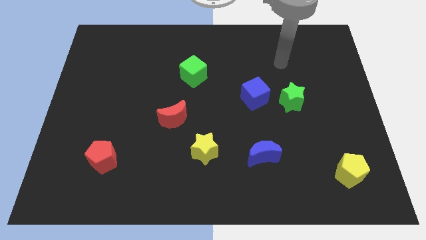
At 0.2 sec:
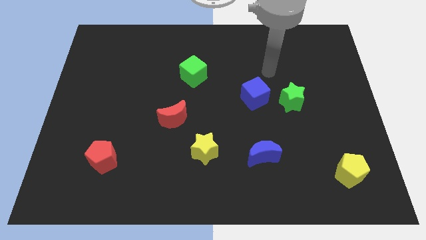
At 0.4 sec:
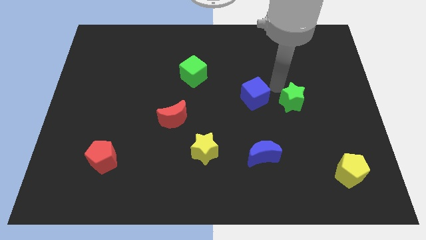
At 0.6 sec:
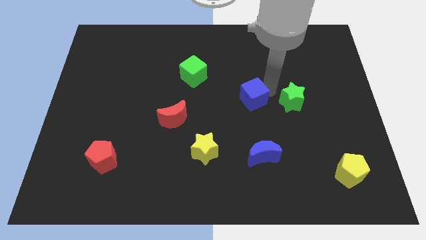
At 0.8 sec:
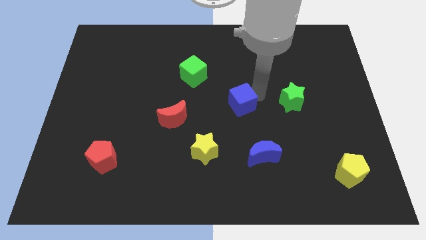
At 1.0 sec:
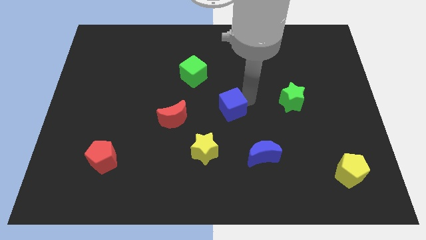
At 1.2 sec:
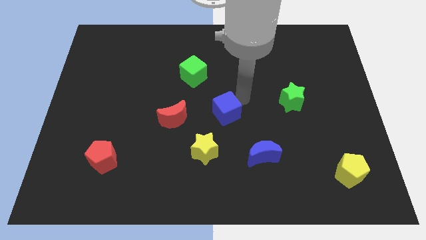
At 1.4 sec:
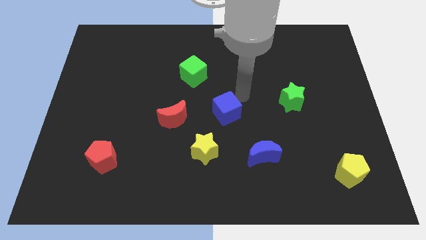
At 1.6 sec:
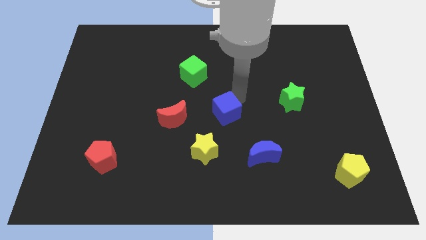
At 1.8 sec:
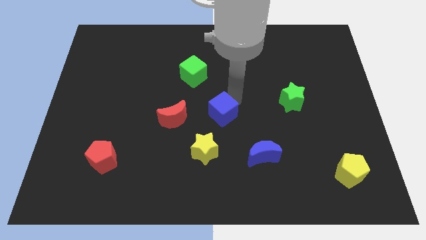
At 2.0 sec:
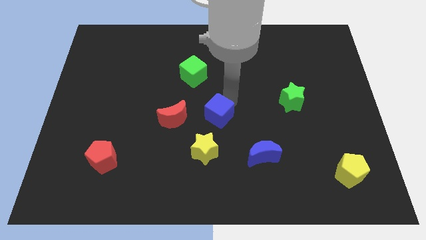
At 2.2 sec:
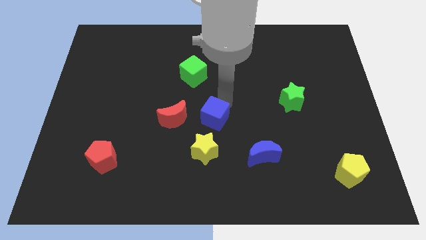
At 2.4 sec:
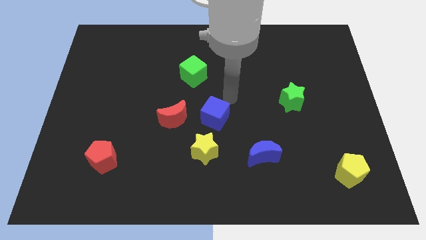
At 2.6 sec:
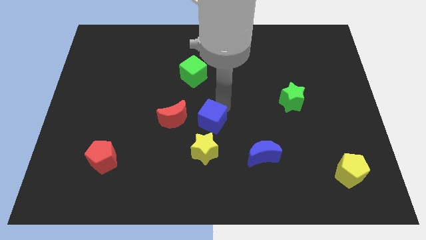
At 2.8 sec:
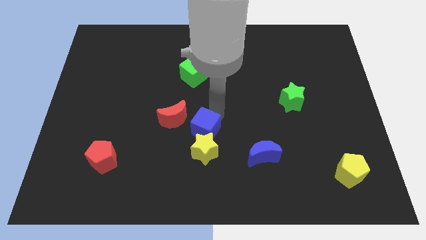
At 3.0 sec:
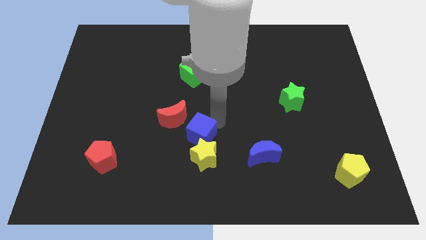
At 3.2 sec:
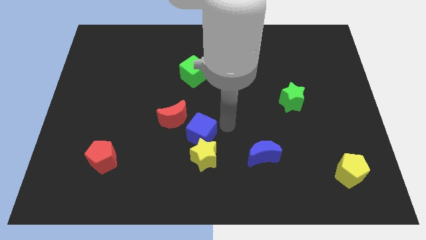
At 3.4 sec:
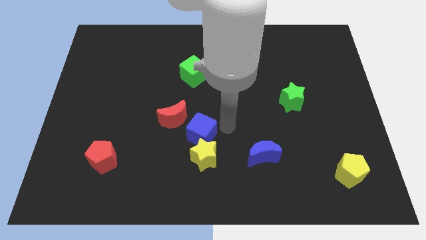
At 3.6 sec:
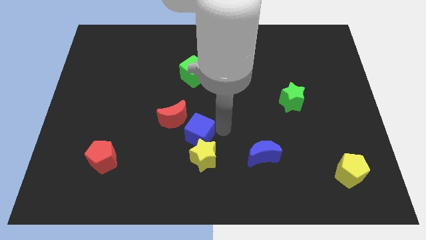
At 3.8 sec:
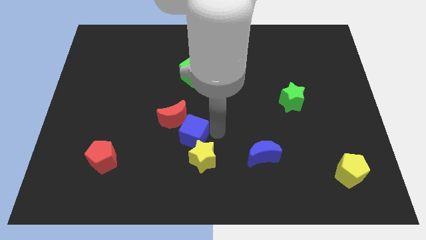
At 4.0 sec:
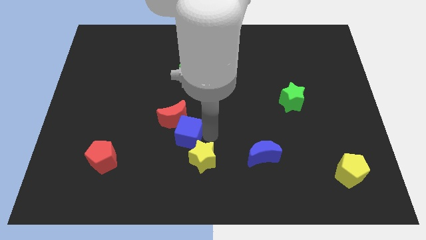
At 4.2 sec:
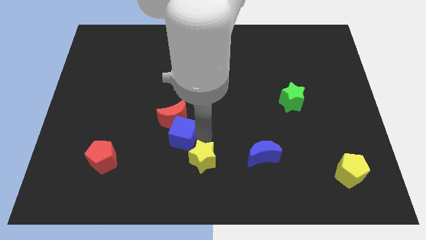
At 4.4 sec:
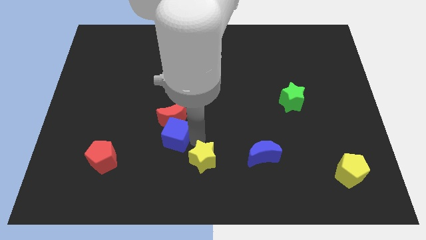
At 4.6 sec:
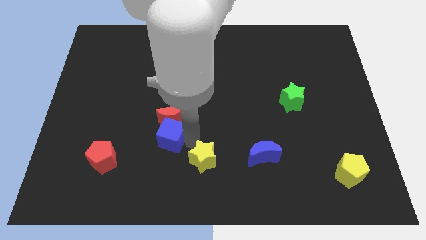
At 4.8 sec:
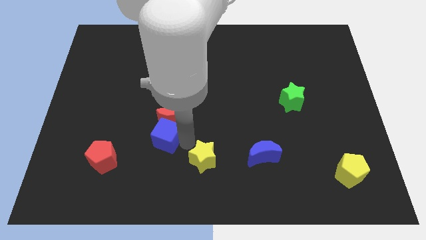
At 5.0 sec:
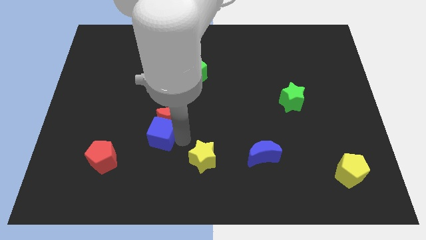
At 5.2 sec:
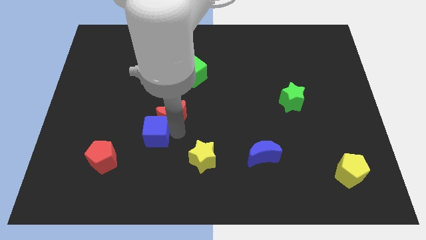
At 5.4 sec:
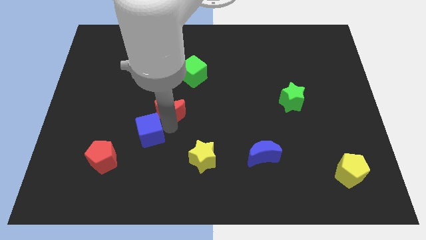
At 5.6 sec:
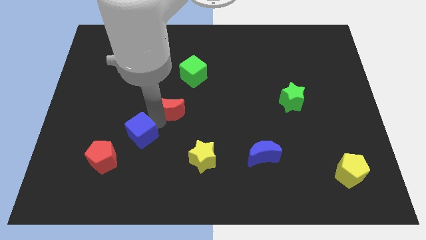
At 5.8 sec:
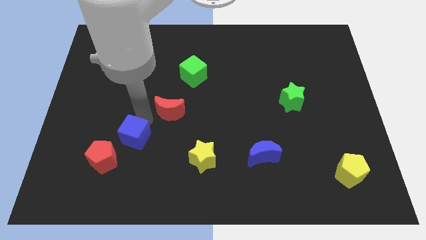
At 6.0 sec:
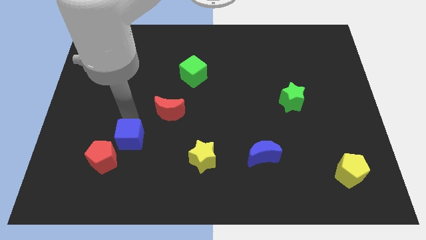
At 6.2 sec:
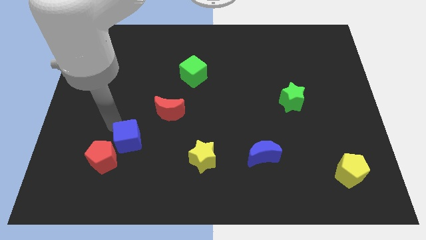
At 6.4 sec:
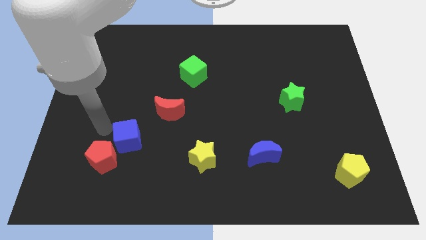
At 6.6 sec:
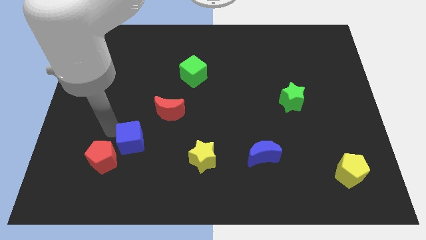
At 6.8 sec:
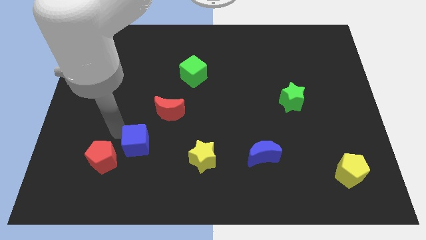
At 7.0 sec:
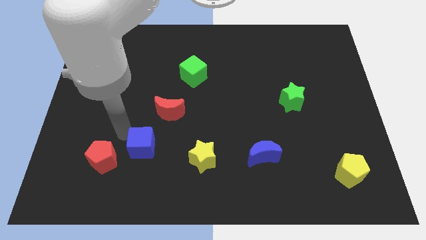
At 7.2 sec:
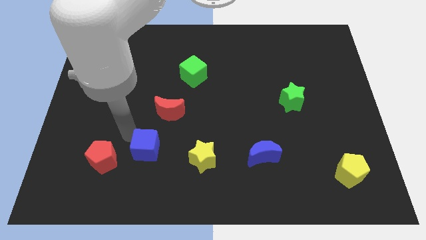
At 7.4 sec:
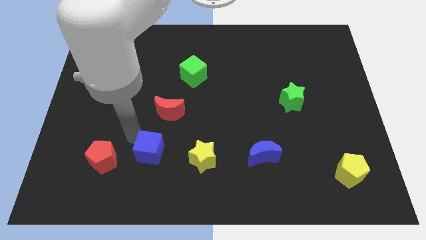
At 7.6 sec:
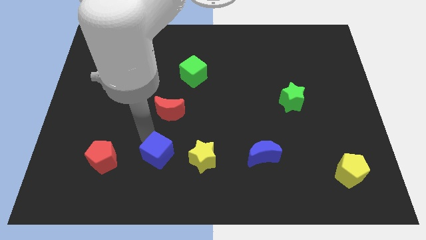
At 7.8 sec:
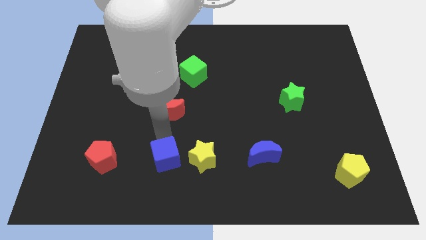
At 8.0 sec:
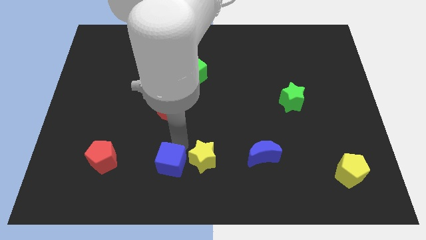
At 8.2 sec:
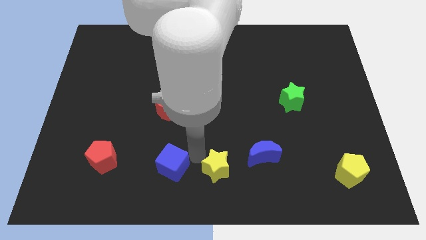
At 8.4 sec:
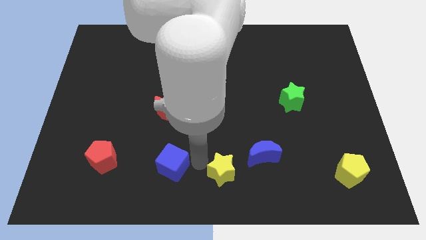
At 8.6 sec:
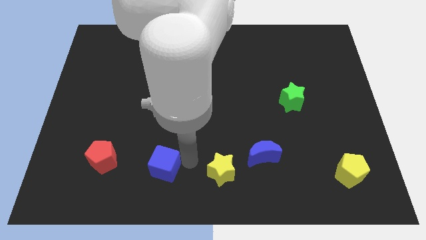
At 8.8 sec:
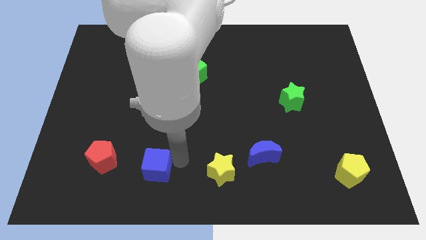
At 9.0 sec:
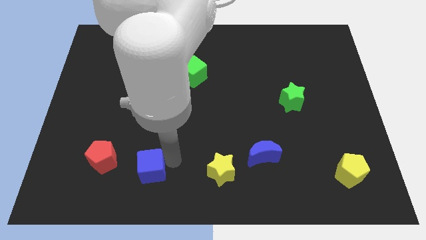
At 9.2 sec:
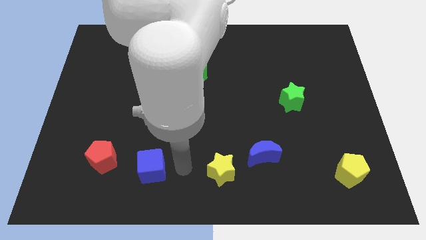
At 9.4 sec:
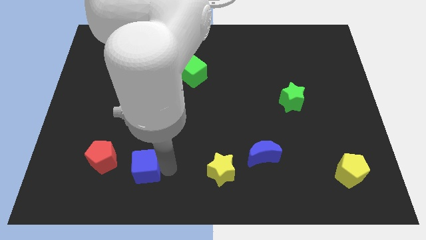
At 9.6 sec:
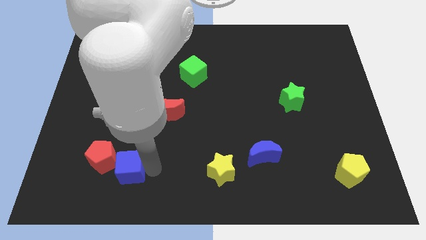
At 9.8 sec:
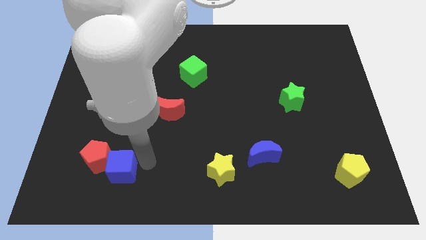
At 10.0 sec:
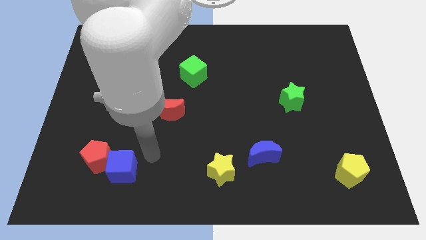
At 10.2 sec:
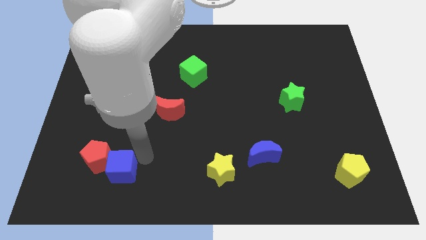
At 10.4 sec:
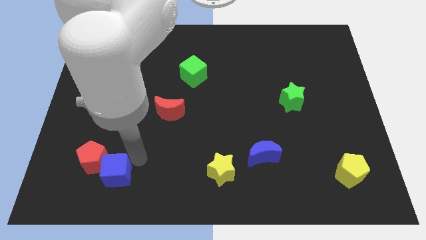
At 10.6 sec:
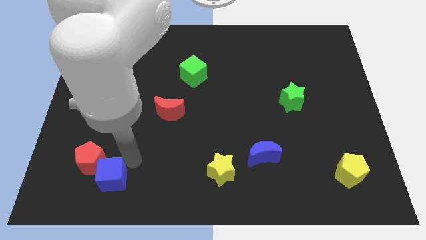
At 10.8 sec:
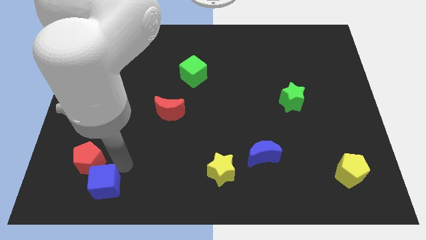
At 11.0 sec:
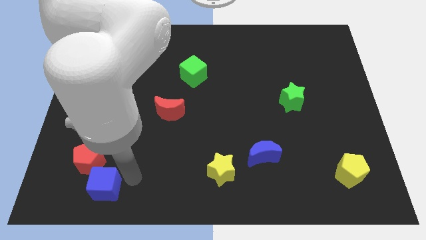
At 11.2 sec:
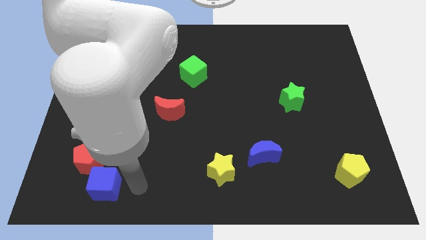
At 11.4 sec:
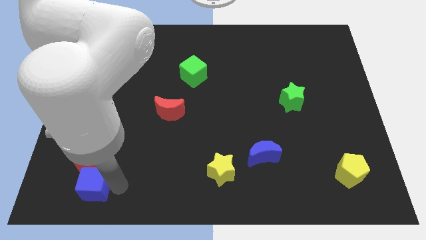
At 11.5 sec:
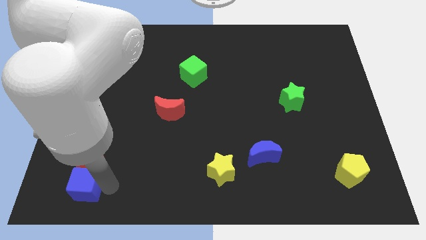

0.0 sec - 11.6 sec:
move the blue cube to the bottom left side of the red pentagon
